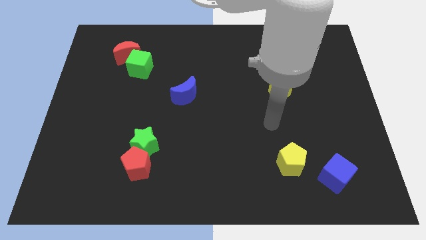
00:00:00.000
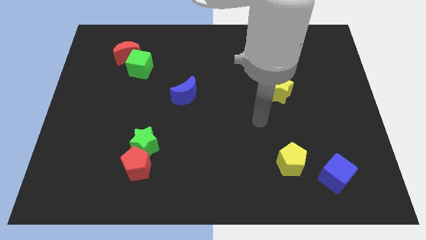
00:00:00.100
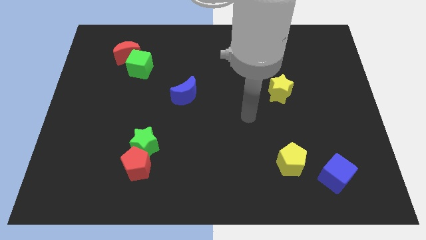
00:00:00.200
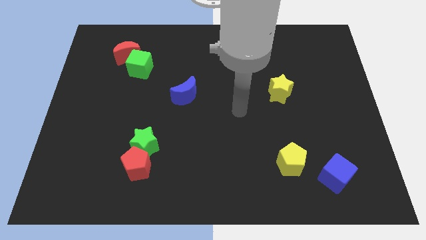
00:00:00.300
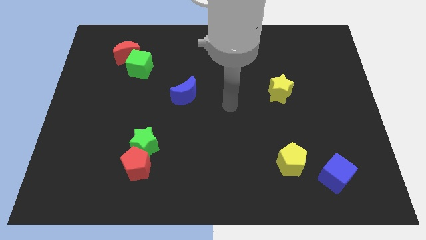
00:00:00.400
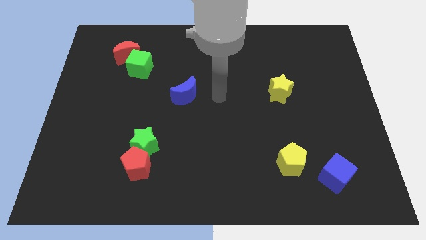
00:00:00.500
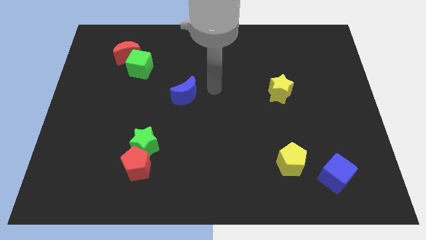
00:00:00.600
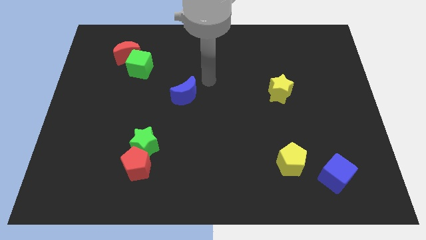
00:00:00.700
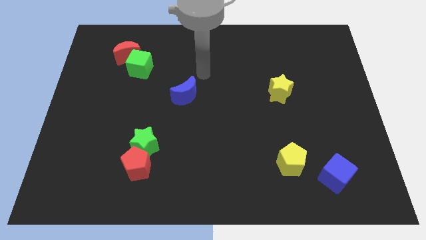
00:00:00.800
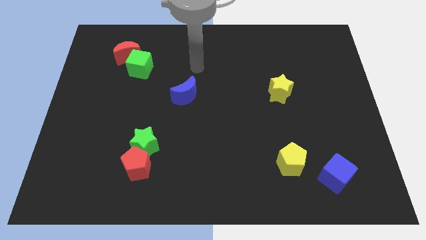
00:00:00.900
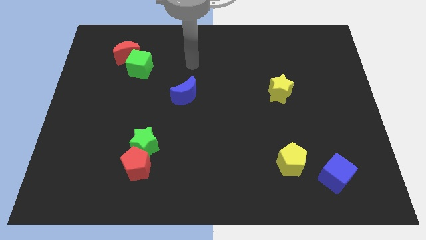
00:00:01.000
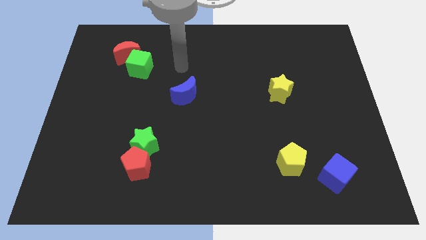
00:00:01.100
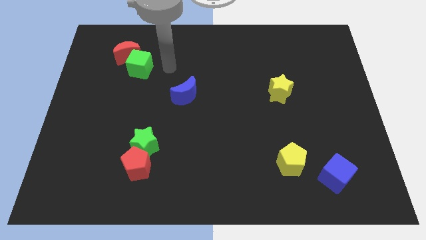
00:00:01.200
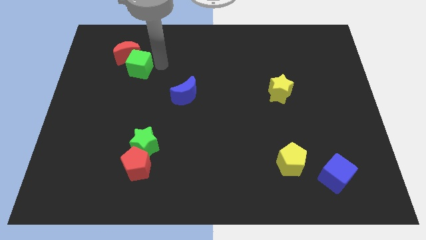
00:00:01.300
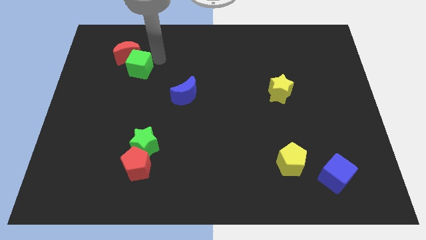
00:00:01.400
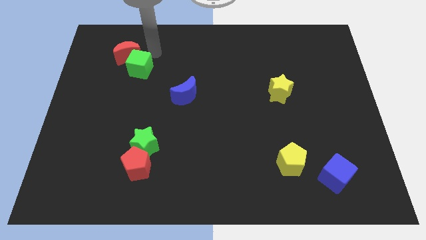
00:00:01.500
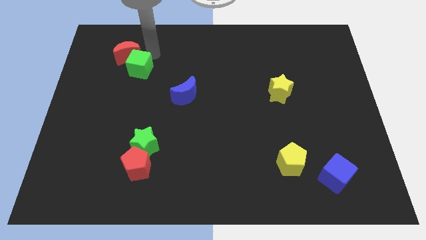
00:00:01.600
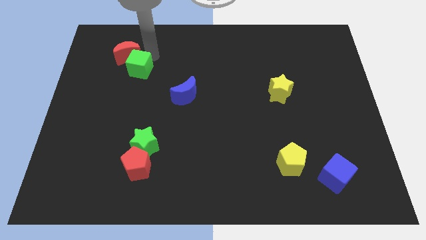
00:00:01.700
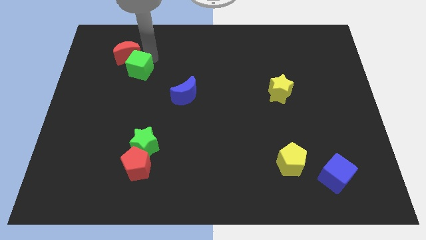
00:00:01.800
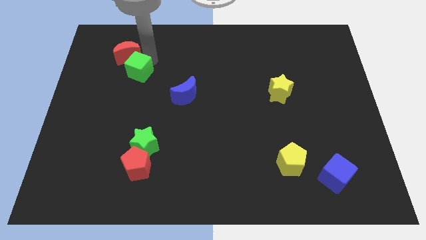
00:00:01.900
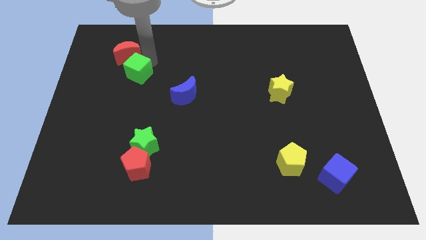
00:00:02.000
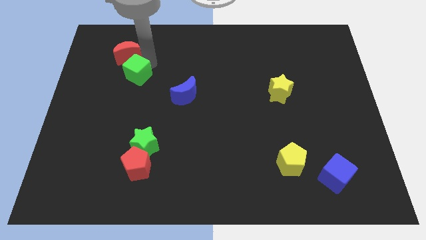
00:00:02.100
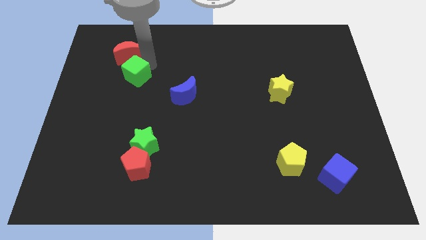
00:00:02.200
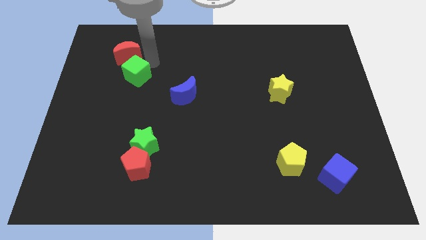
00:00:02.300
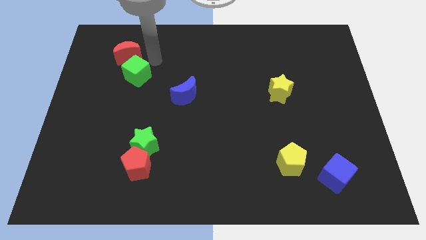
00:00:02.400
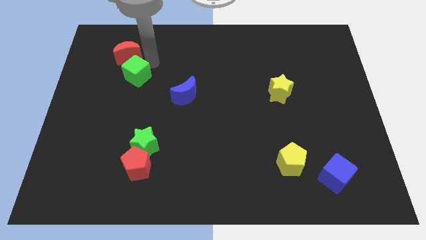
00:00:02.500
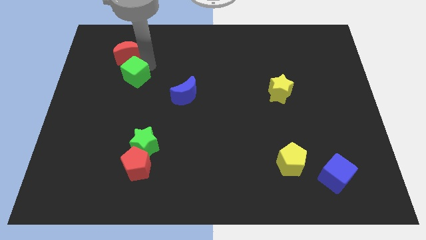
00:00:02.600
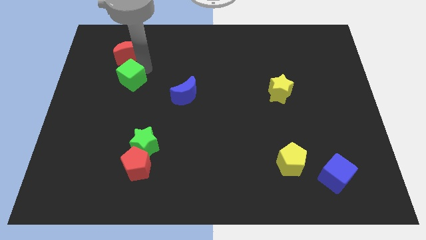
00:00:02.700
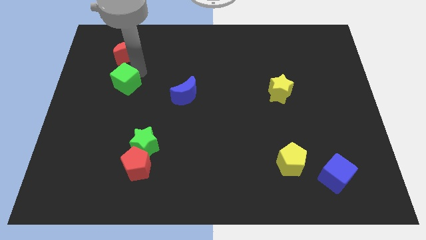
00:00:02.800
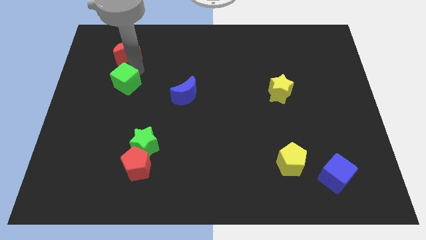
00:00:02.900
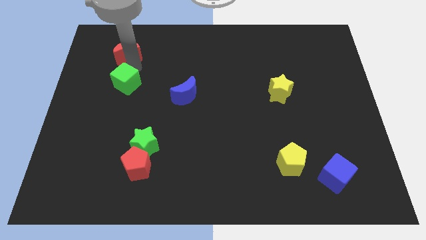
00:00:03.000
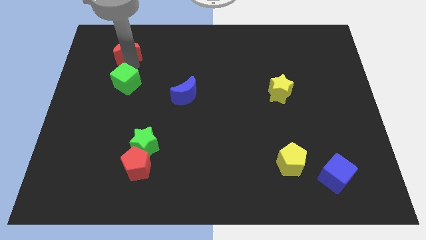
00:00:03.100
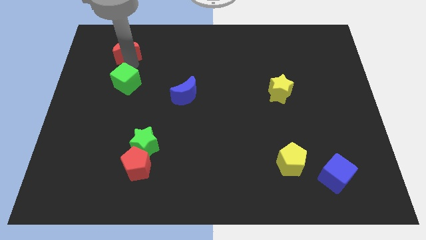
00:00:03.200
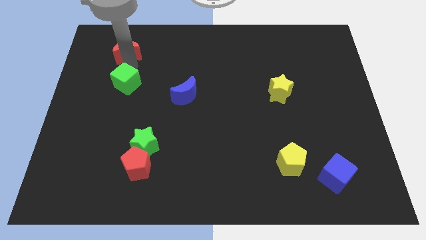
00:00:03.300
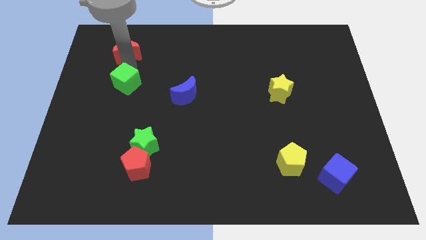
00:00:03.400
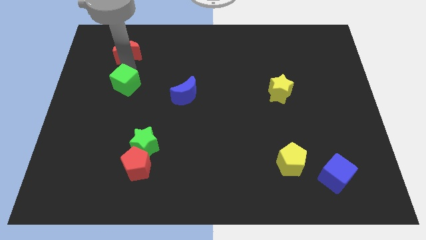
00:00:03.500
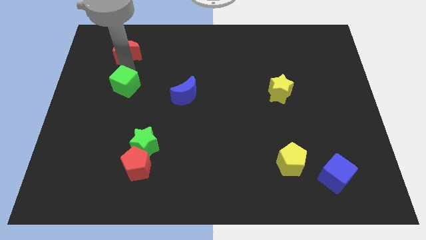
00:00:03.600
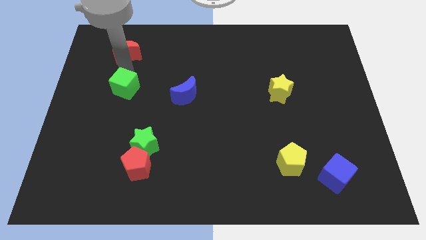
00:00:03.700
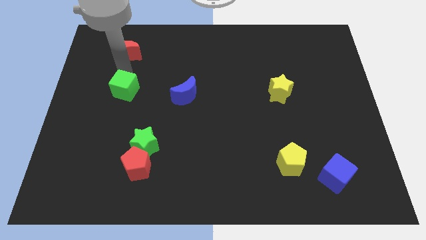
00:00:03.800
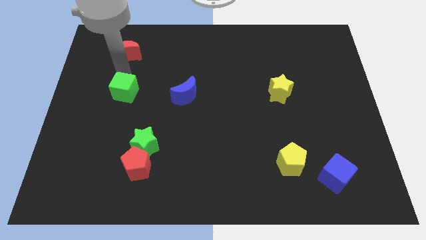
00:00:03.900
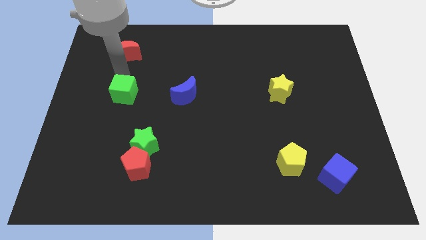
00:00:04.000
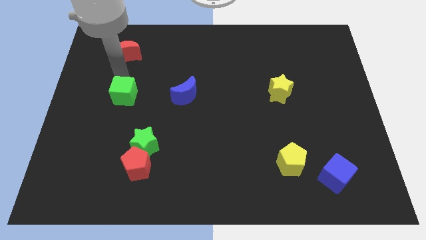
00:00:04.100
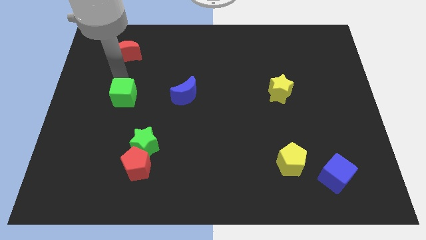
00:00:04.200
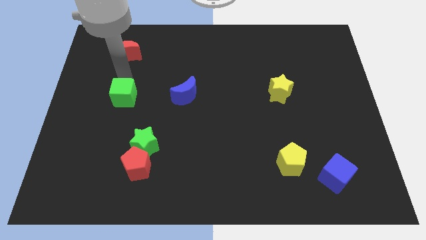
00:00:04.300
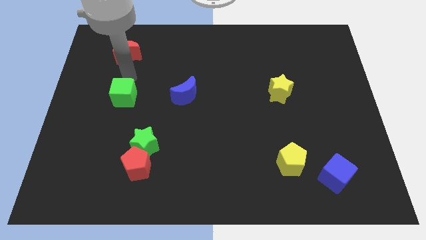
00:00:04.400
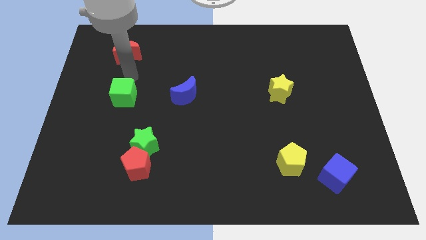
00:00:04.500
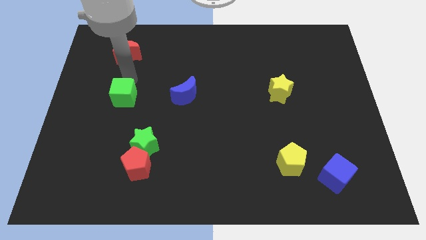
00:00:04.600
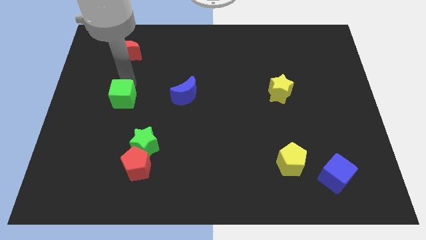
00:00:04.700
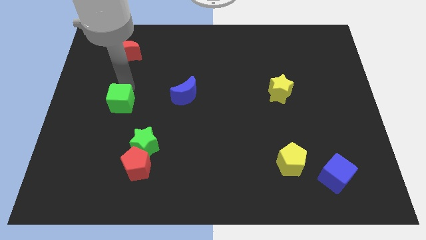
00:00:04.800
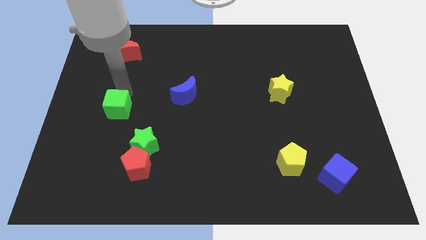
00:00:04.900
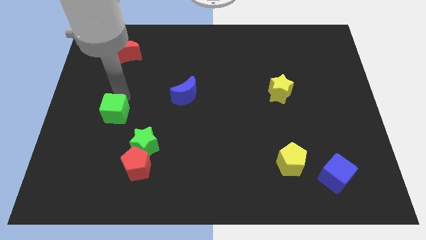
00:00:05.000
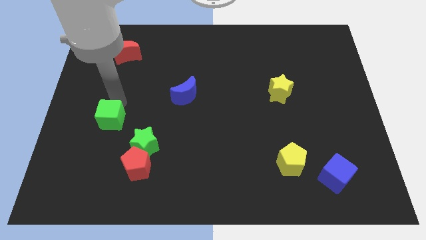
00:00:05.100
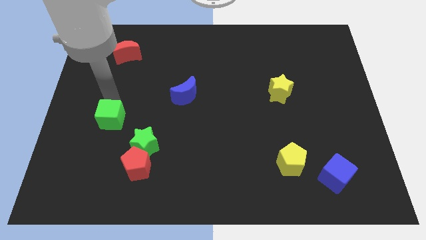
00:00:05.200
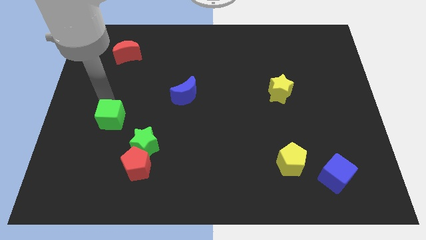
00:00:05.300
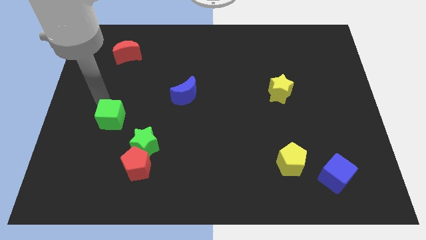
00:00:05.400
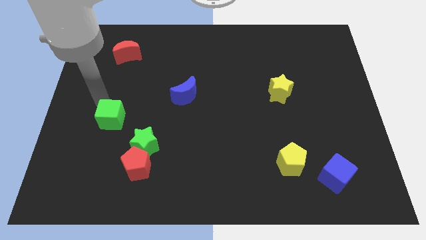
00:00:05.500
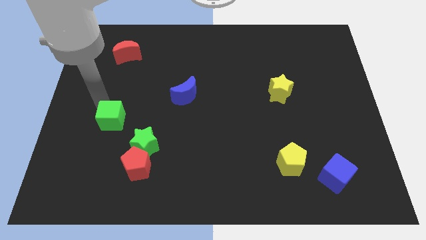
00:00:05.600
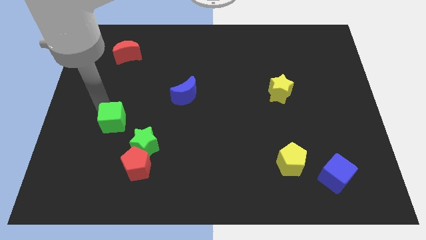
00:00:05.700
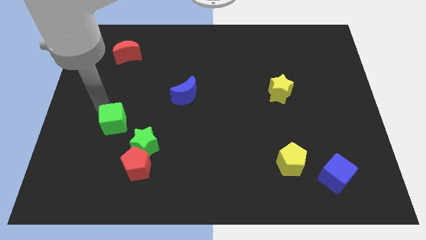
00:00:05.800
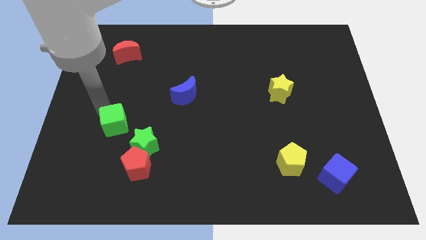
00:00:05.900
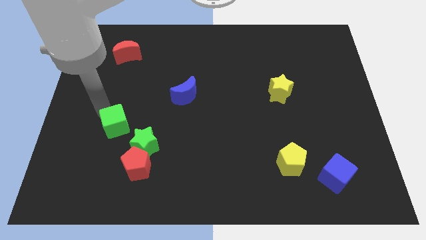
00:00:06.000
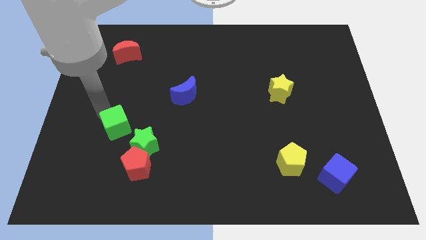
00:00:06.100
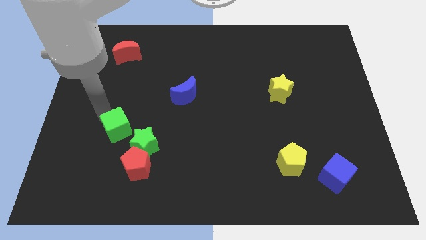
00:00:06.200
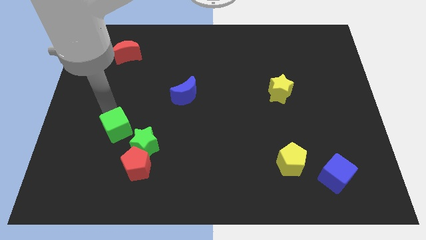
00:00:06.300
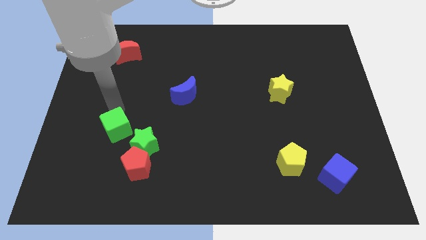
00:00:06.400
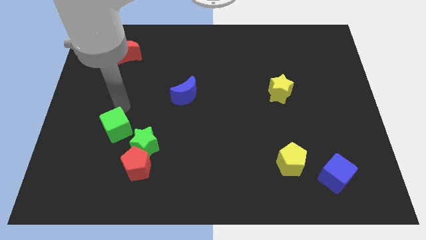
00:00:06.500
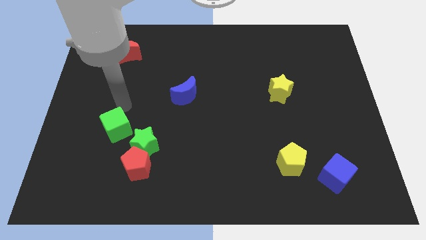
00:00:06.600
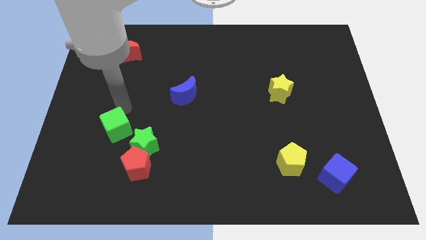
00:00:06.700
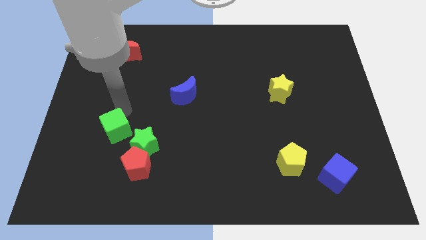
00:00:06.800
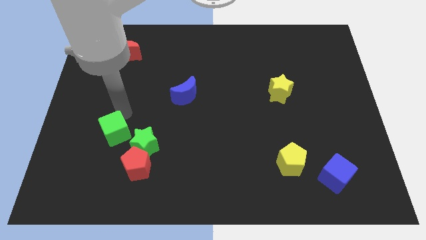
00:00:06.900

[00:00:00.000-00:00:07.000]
move the green cube downwards

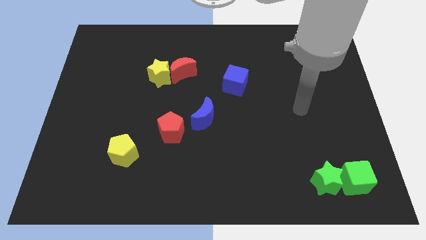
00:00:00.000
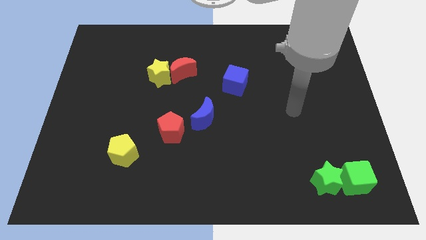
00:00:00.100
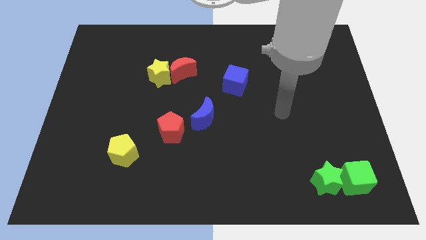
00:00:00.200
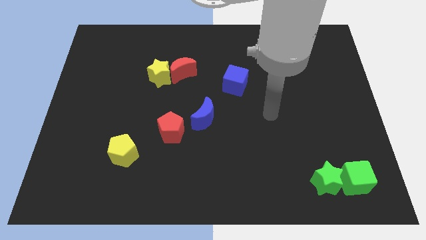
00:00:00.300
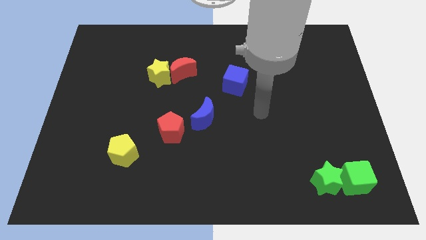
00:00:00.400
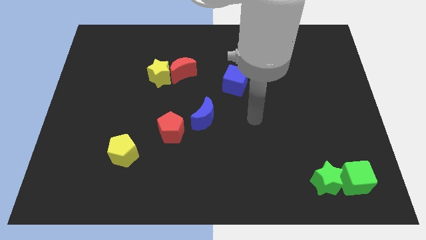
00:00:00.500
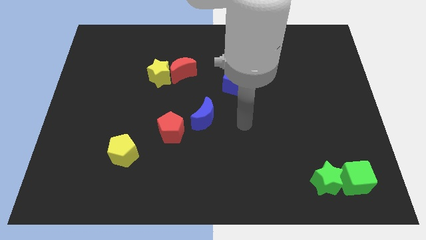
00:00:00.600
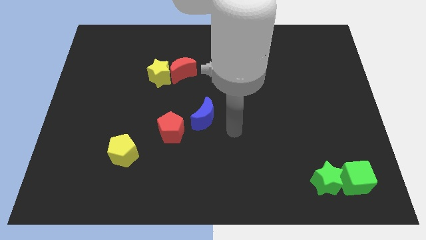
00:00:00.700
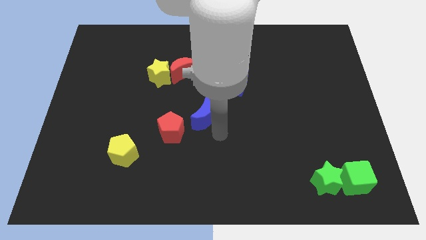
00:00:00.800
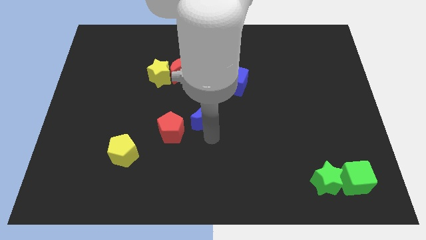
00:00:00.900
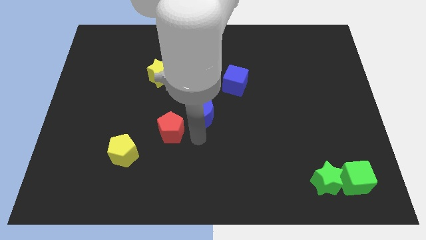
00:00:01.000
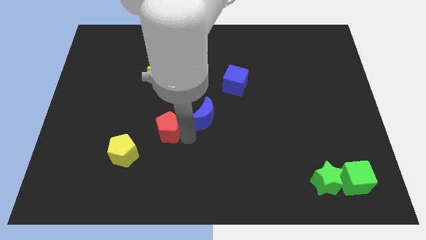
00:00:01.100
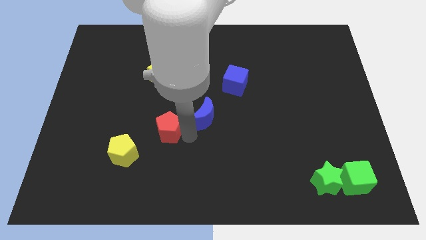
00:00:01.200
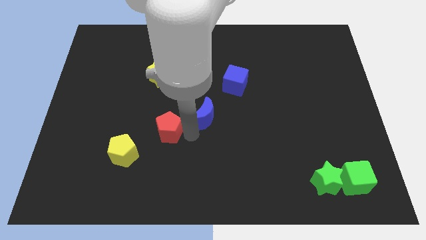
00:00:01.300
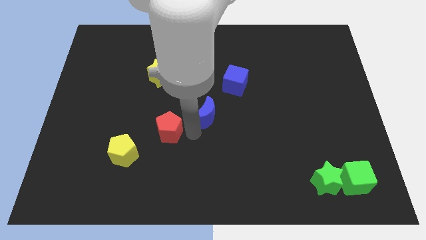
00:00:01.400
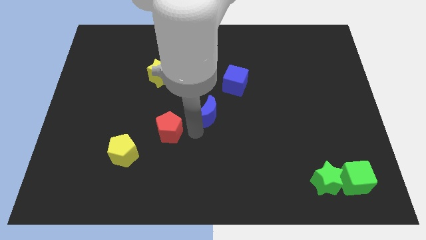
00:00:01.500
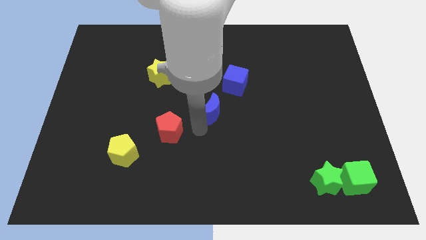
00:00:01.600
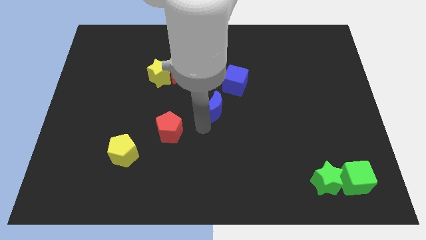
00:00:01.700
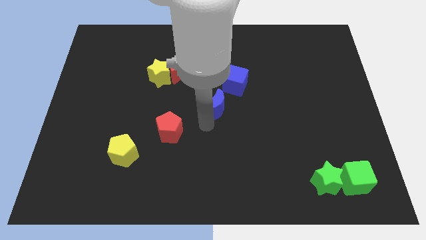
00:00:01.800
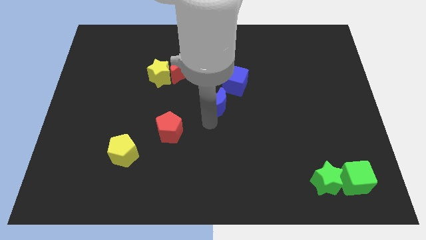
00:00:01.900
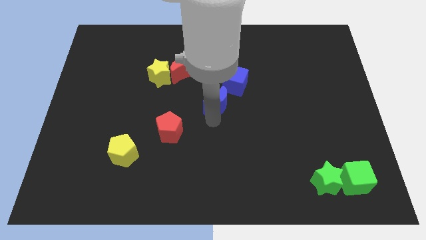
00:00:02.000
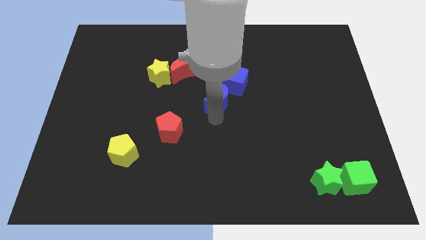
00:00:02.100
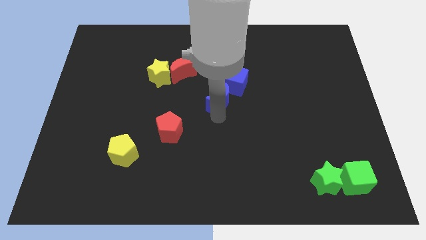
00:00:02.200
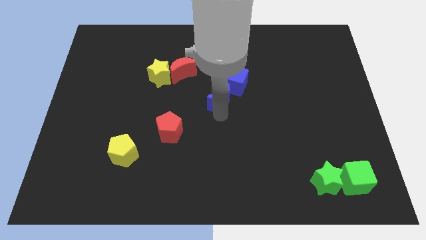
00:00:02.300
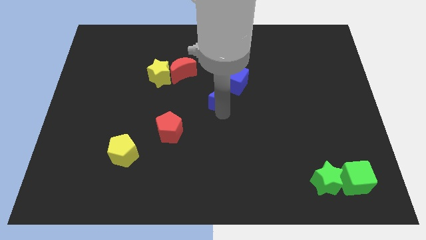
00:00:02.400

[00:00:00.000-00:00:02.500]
slide the blue moon a little bit diagonally upwards and right
